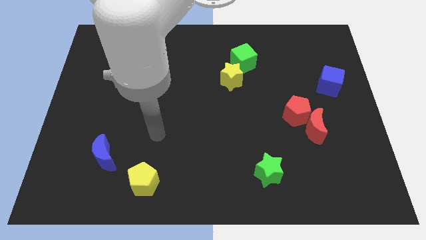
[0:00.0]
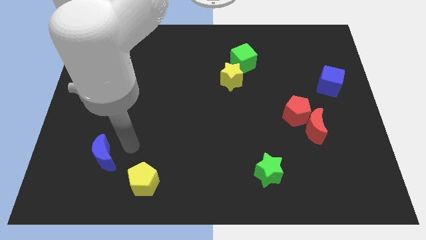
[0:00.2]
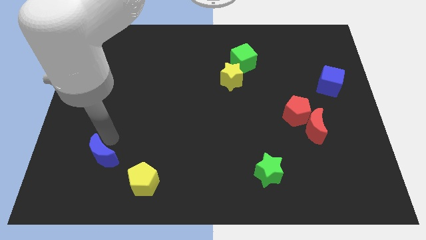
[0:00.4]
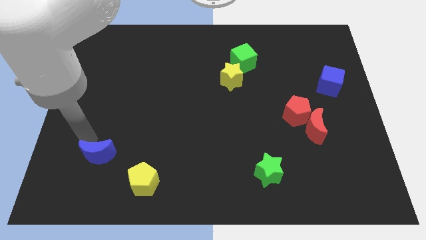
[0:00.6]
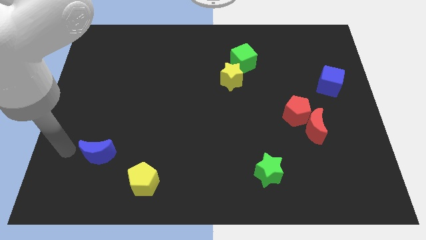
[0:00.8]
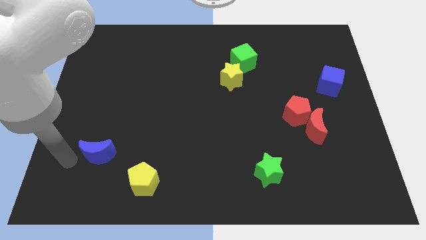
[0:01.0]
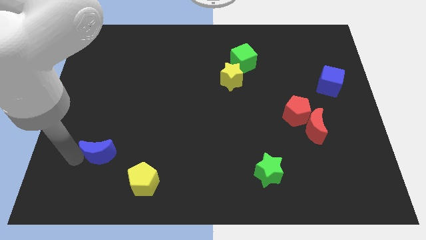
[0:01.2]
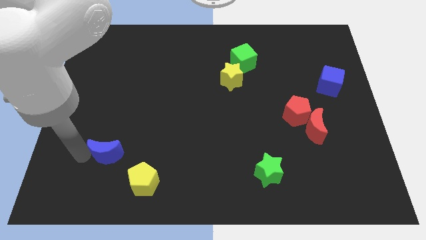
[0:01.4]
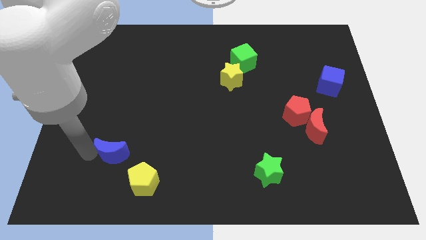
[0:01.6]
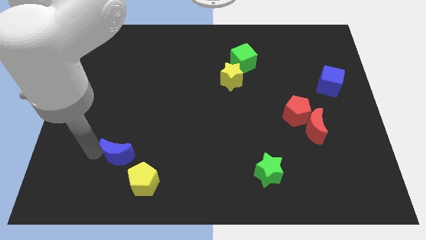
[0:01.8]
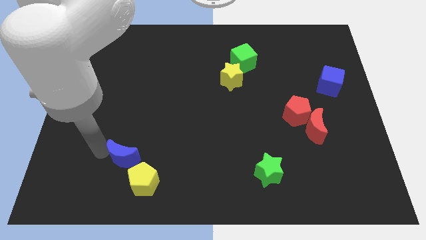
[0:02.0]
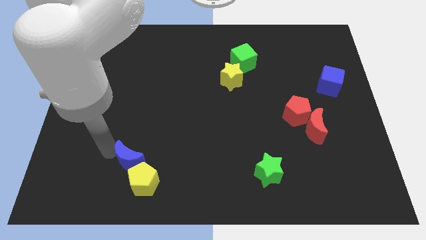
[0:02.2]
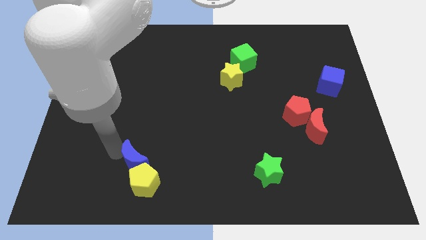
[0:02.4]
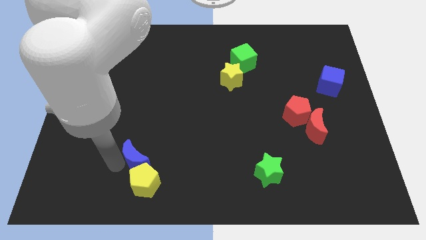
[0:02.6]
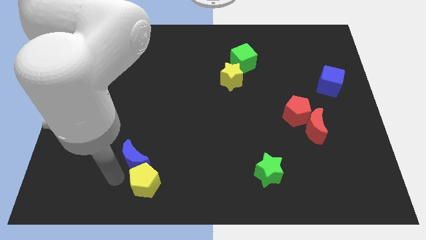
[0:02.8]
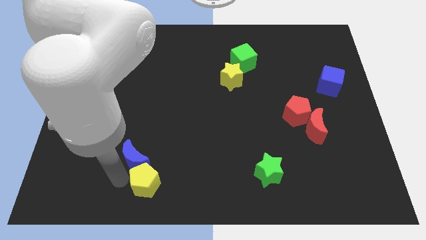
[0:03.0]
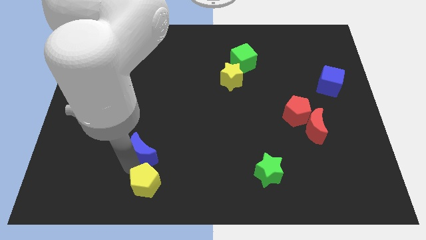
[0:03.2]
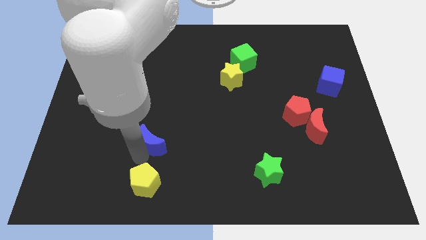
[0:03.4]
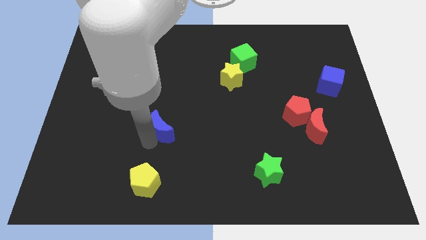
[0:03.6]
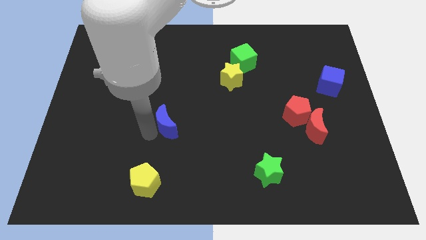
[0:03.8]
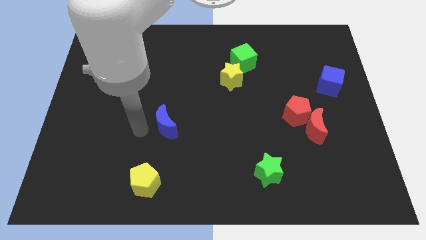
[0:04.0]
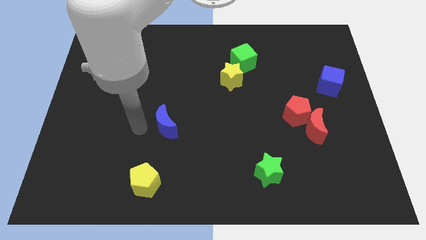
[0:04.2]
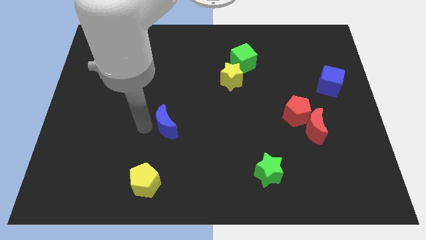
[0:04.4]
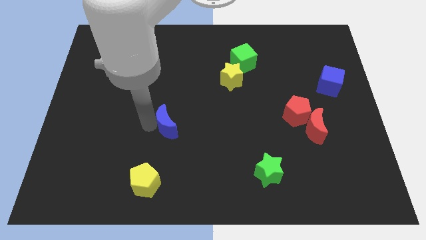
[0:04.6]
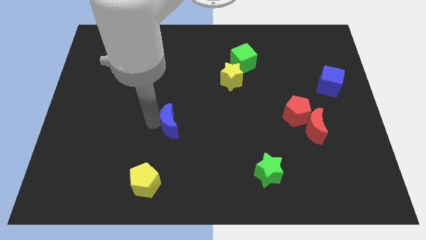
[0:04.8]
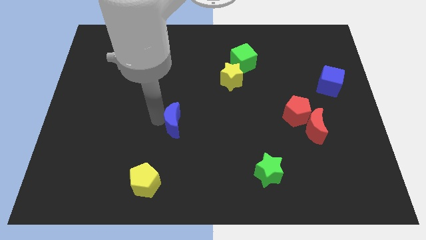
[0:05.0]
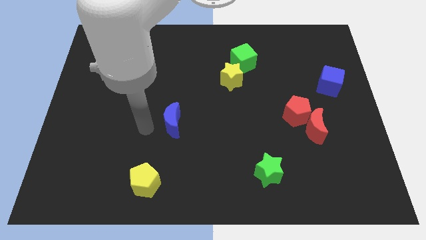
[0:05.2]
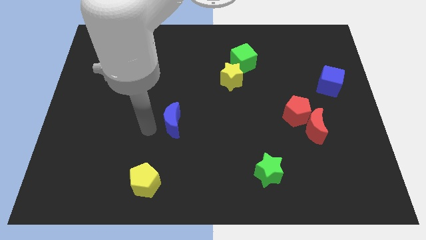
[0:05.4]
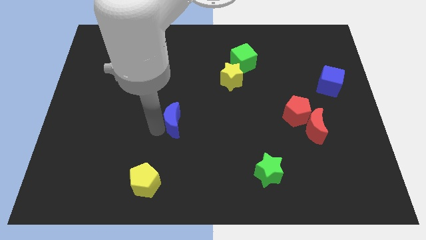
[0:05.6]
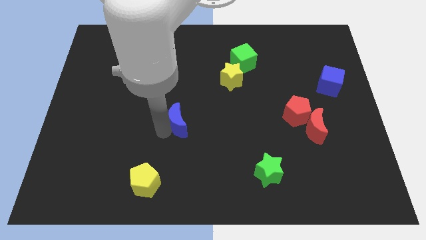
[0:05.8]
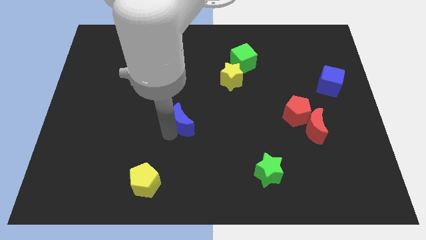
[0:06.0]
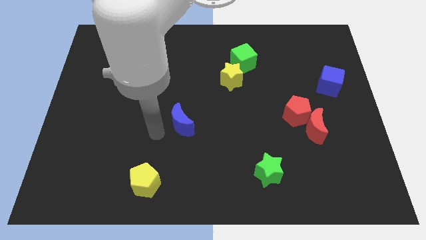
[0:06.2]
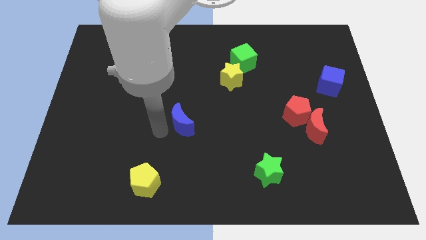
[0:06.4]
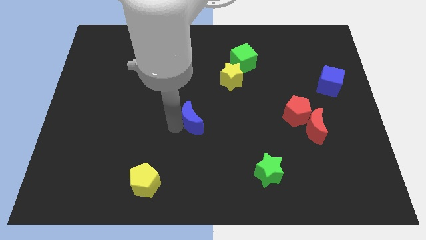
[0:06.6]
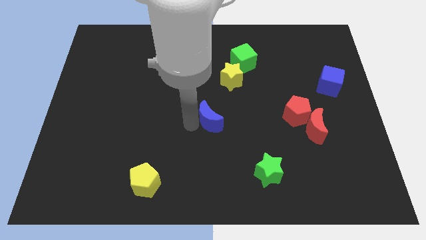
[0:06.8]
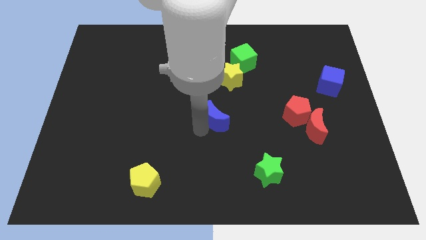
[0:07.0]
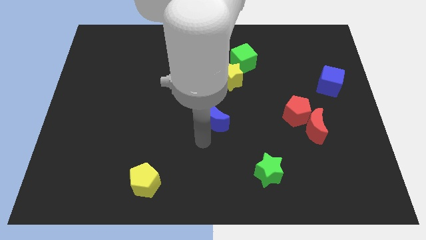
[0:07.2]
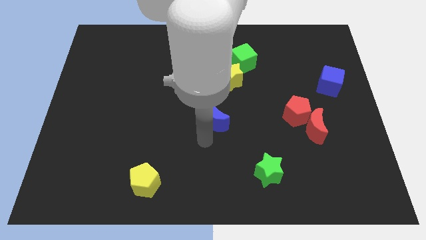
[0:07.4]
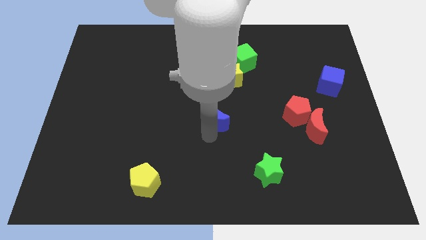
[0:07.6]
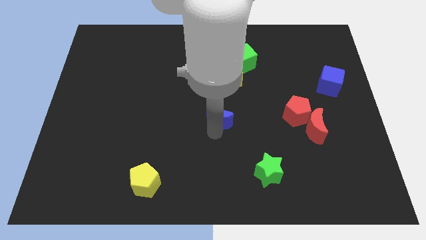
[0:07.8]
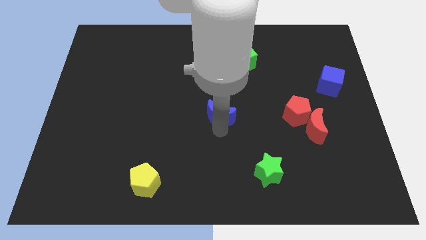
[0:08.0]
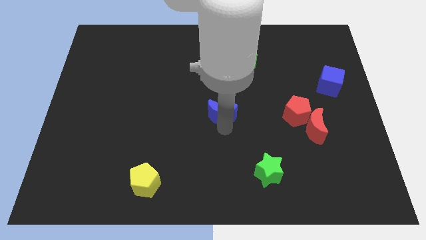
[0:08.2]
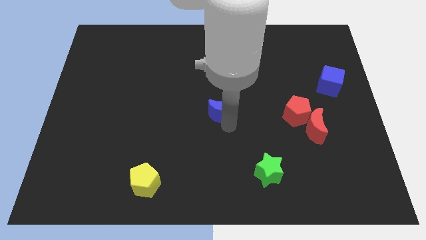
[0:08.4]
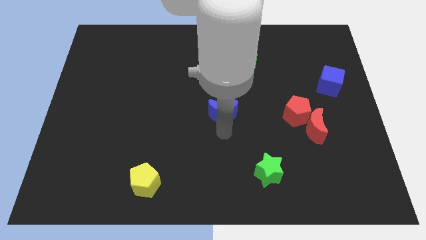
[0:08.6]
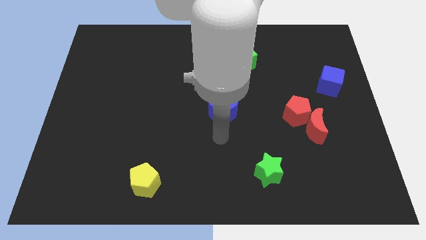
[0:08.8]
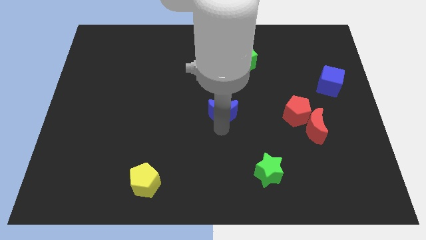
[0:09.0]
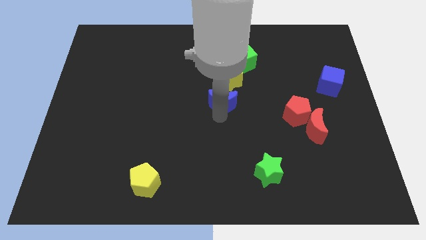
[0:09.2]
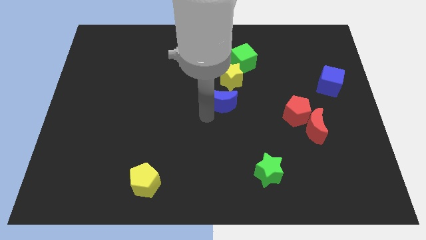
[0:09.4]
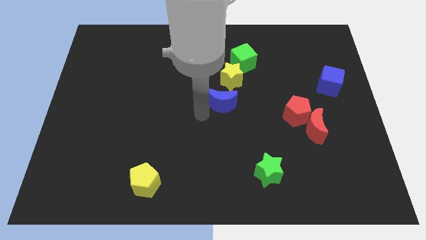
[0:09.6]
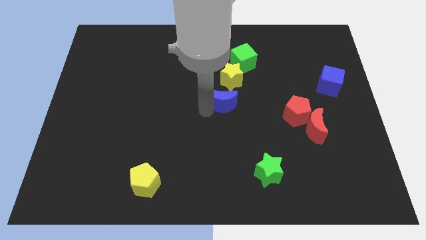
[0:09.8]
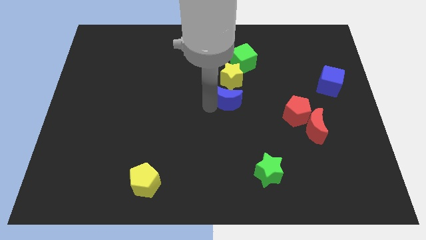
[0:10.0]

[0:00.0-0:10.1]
push the blue moon to the bottom side of the green cube

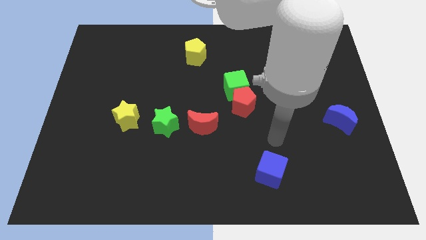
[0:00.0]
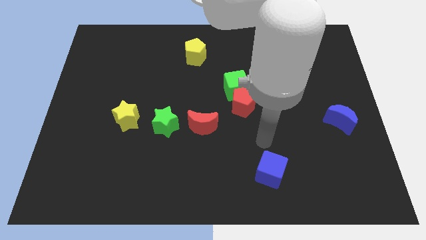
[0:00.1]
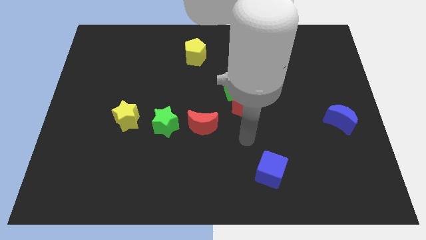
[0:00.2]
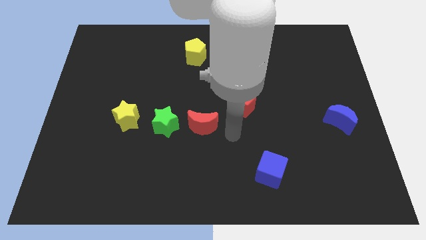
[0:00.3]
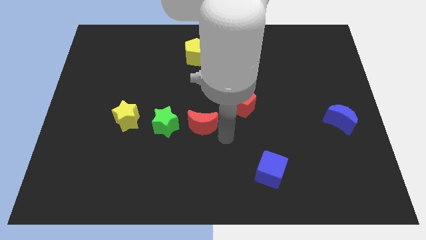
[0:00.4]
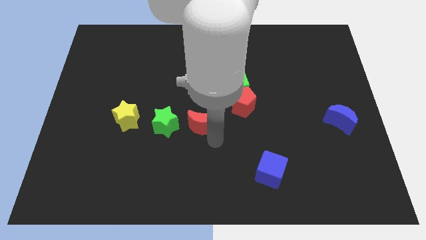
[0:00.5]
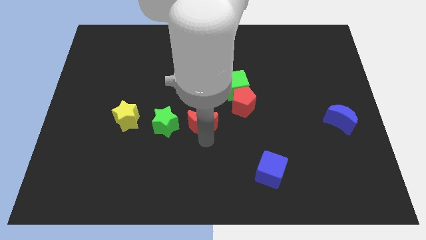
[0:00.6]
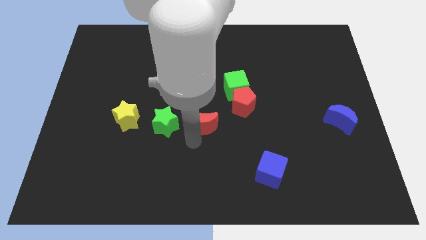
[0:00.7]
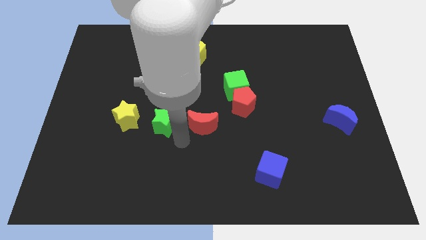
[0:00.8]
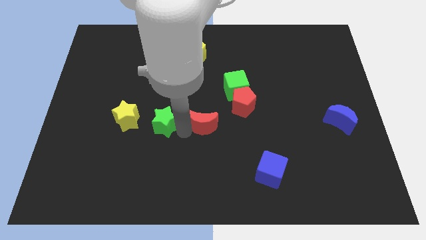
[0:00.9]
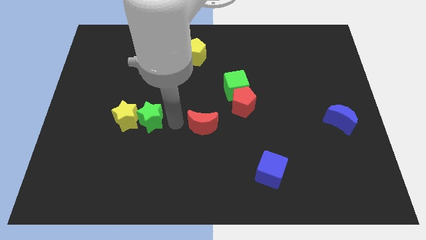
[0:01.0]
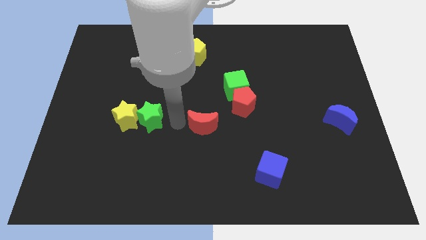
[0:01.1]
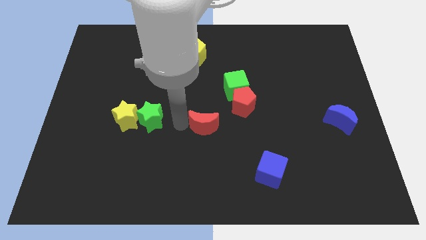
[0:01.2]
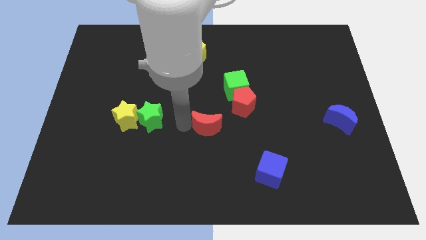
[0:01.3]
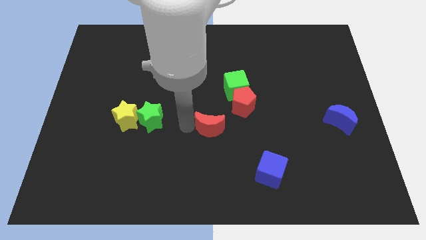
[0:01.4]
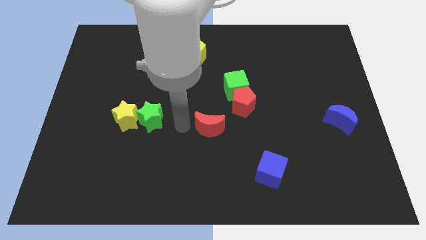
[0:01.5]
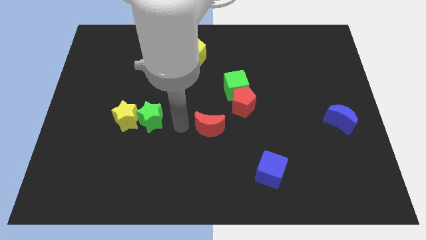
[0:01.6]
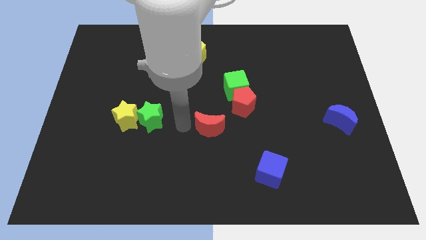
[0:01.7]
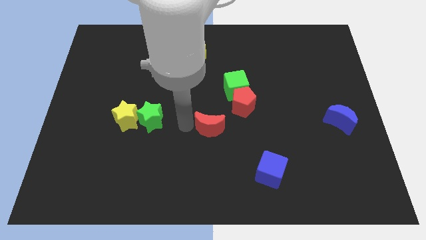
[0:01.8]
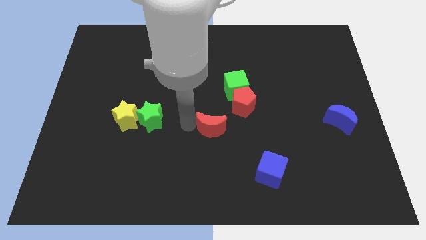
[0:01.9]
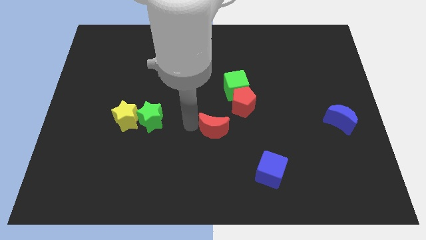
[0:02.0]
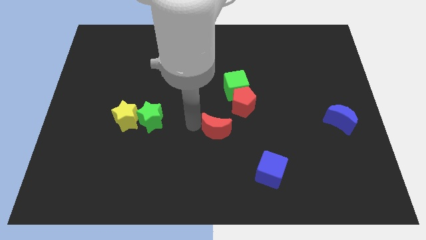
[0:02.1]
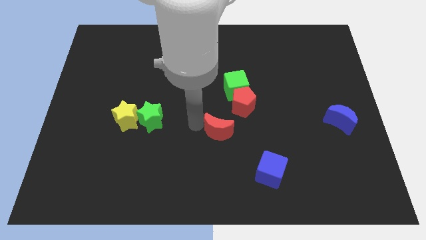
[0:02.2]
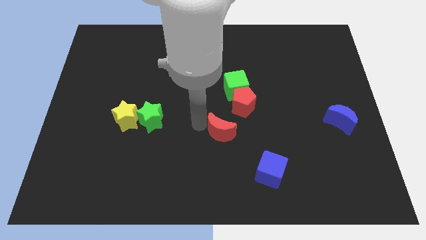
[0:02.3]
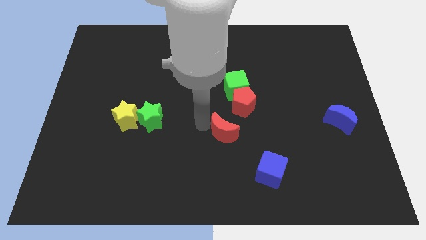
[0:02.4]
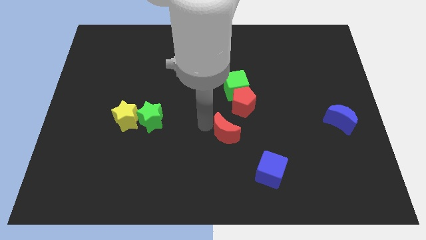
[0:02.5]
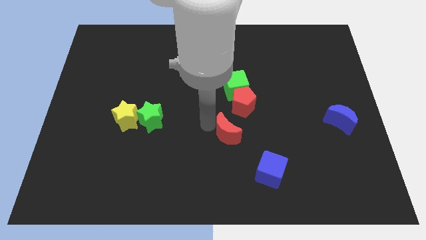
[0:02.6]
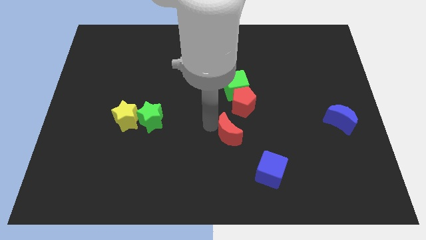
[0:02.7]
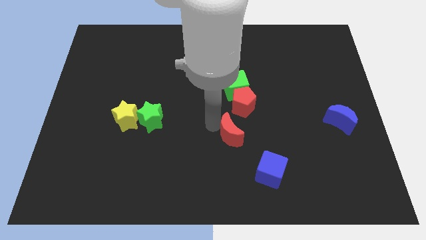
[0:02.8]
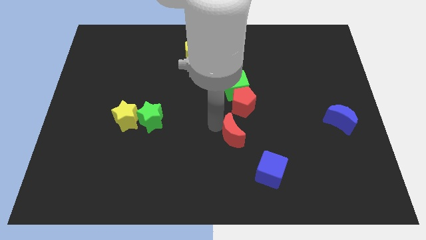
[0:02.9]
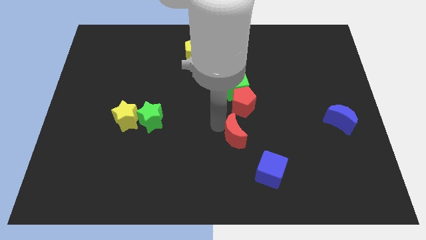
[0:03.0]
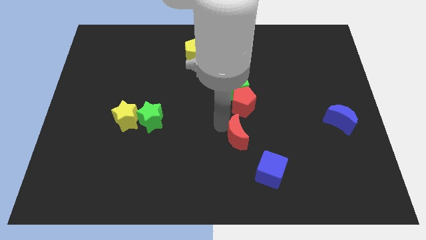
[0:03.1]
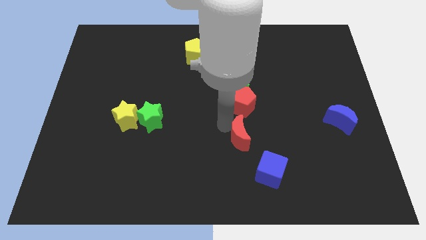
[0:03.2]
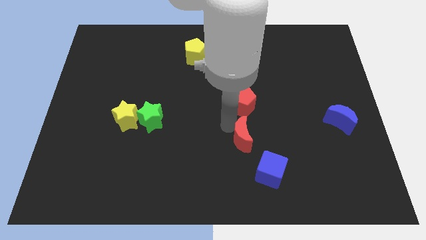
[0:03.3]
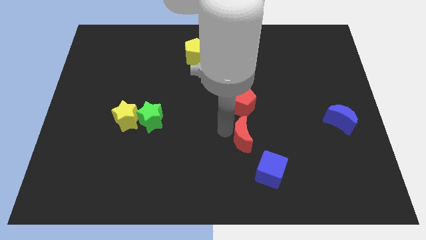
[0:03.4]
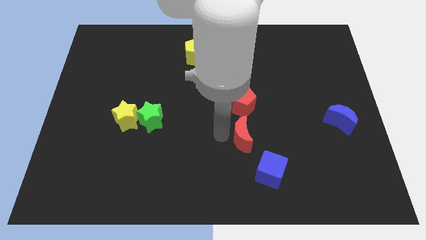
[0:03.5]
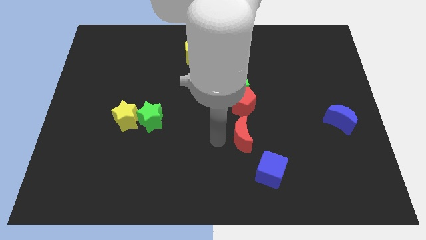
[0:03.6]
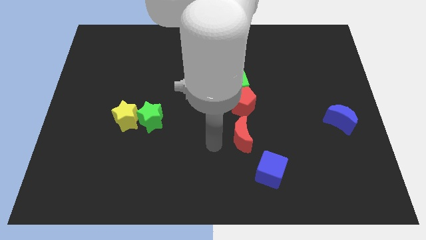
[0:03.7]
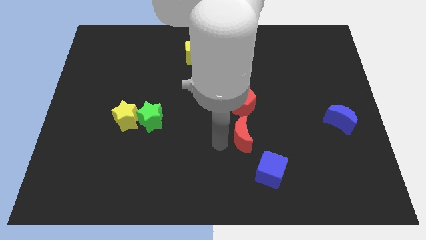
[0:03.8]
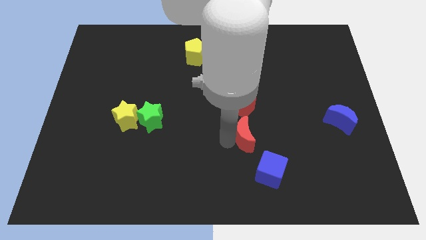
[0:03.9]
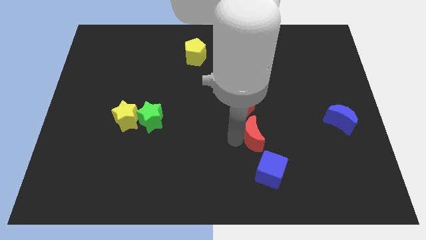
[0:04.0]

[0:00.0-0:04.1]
push the red moon to the top of the blue cube
